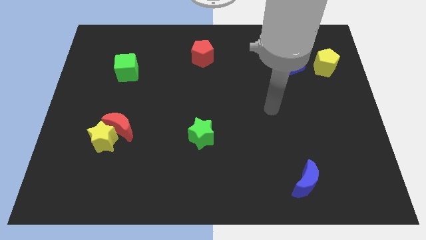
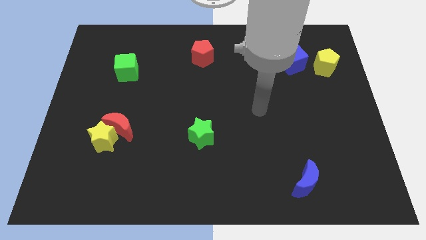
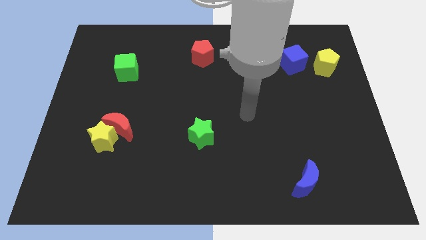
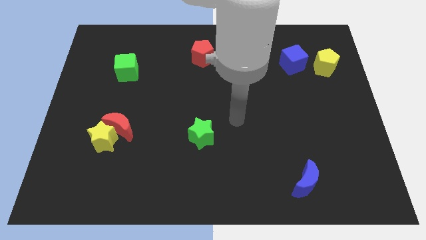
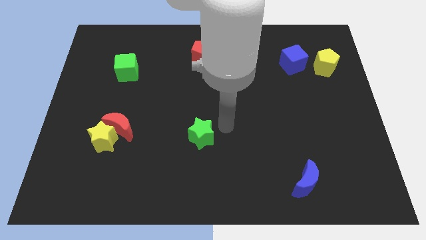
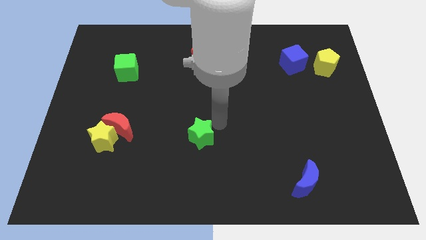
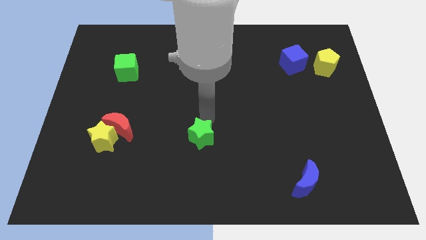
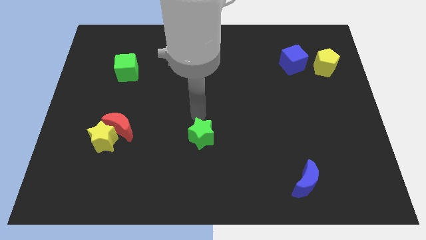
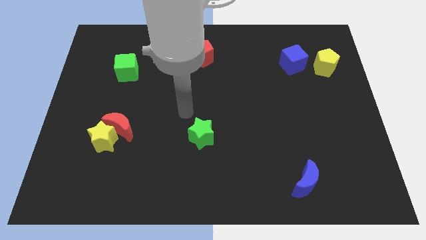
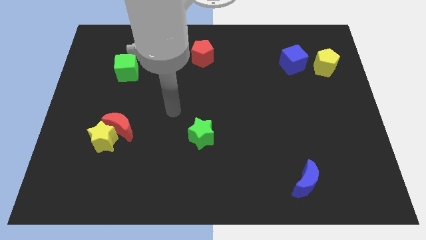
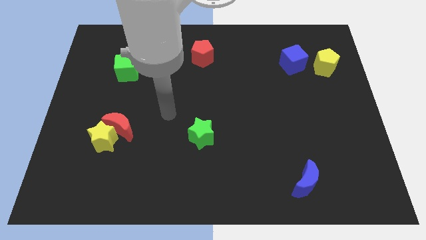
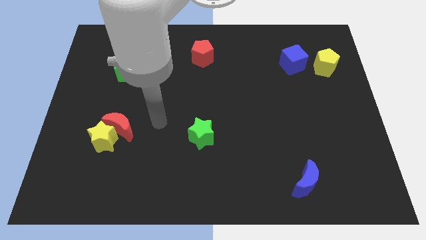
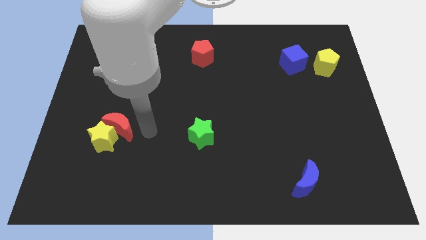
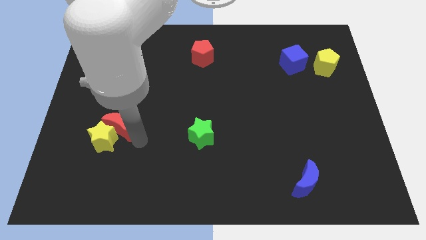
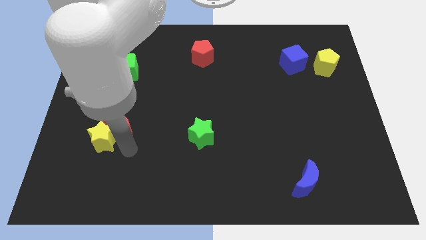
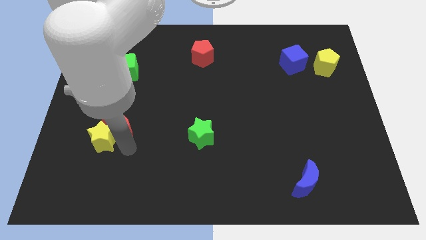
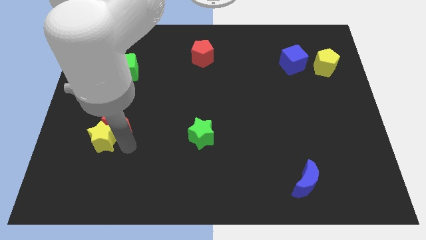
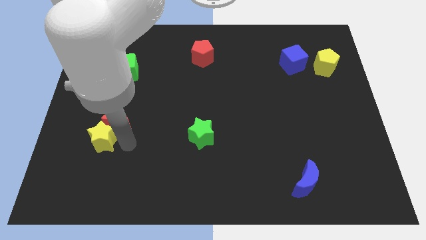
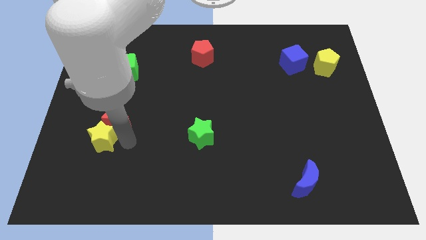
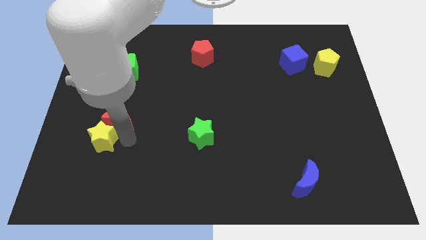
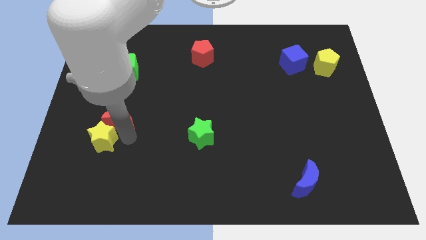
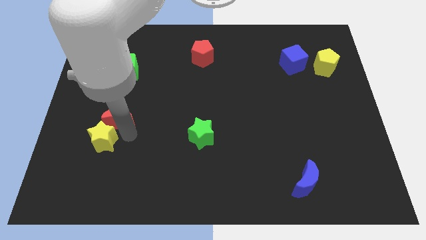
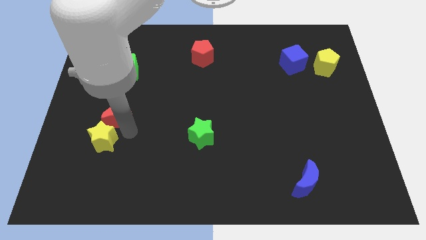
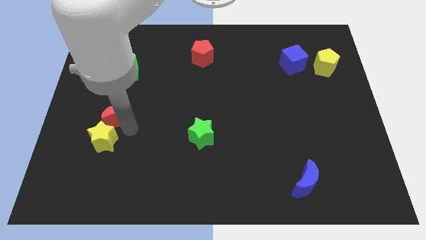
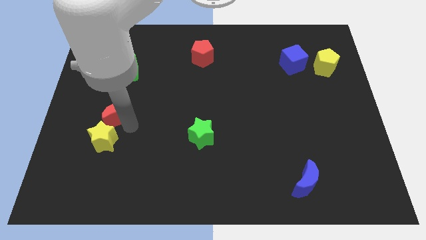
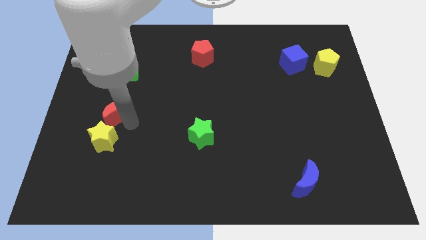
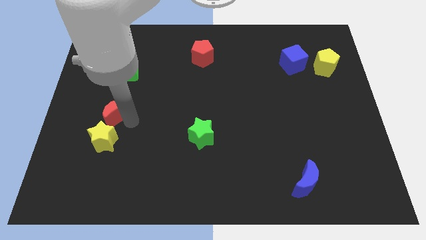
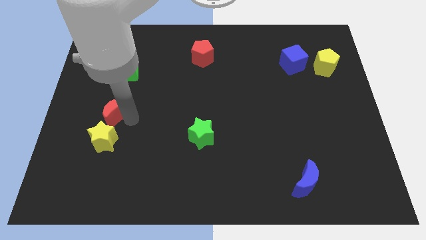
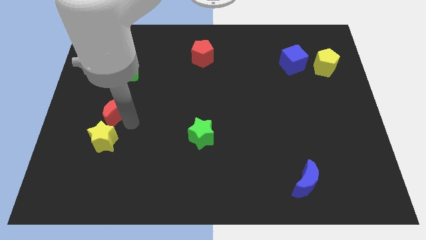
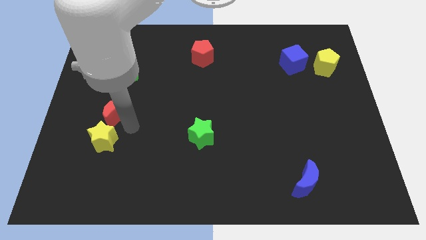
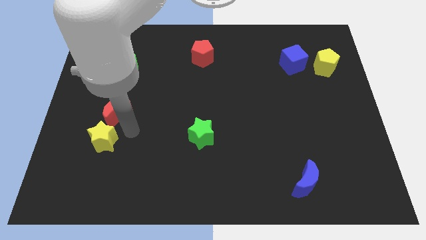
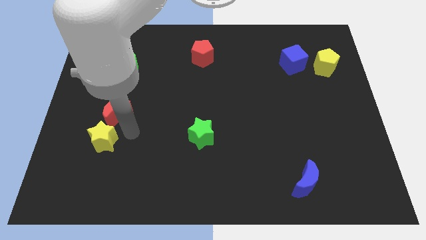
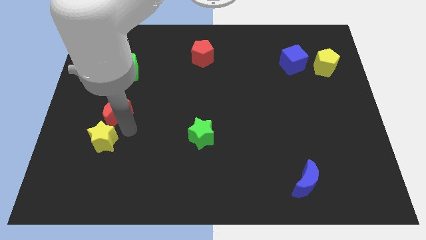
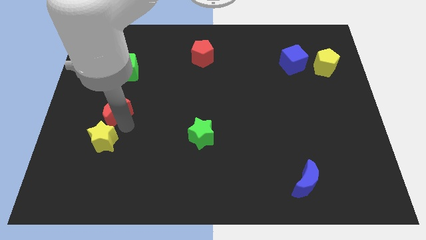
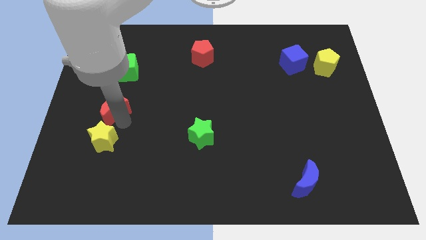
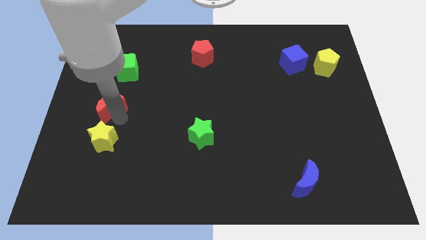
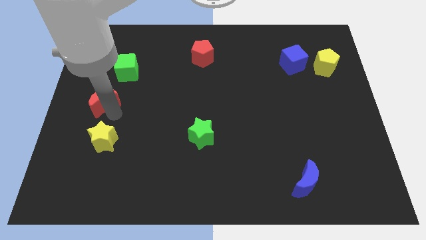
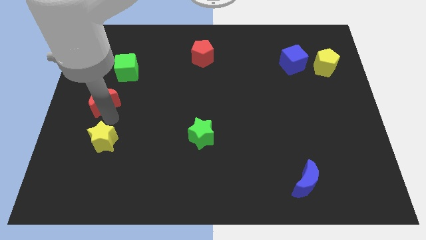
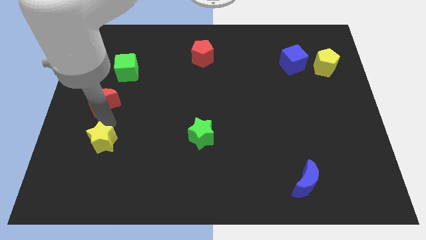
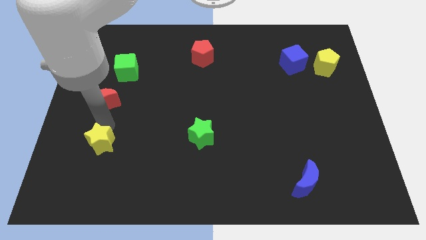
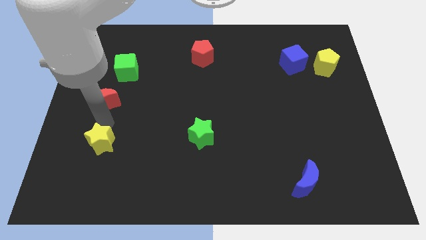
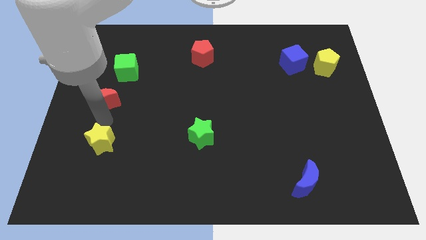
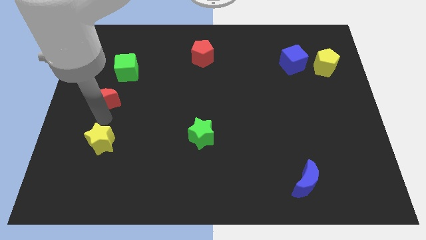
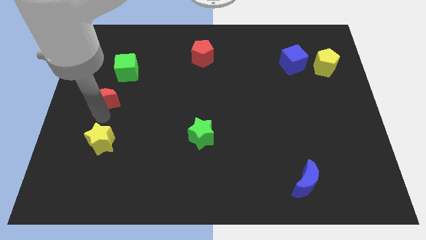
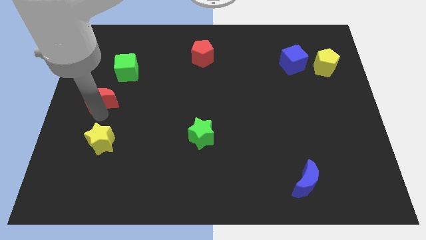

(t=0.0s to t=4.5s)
move the red moon to the bottom left of the green cube

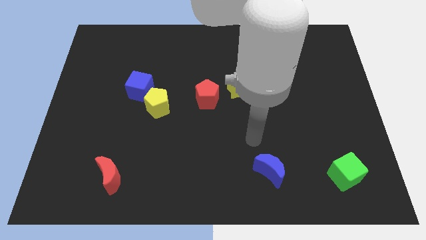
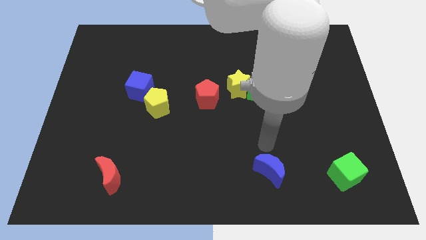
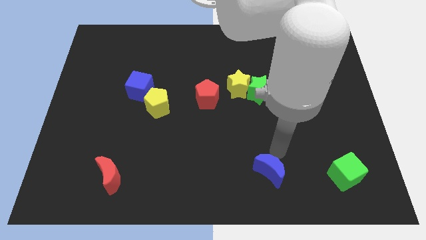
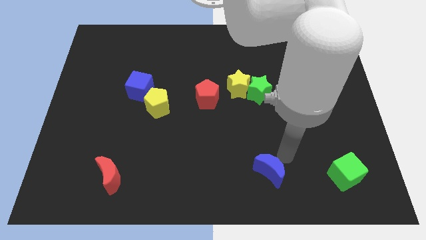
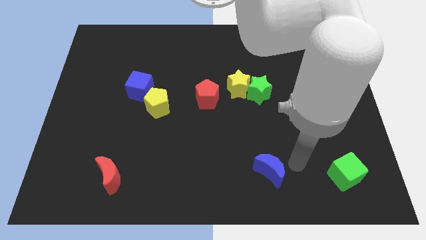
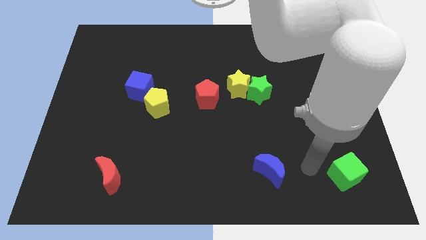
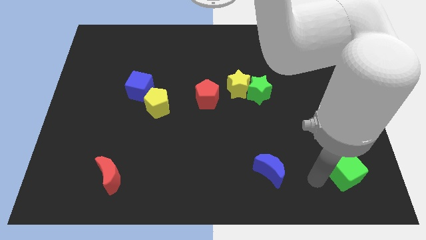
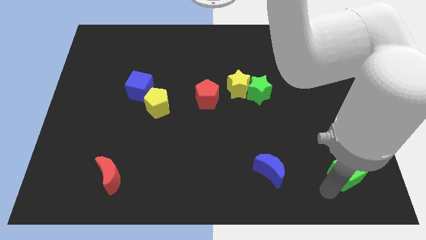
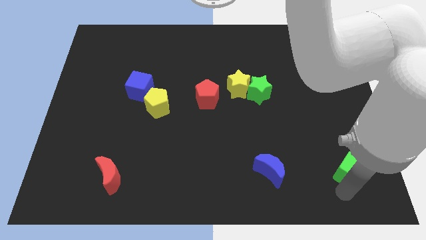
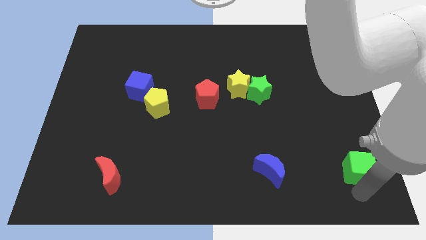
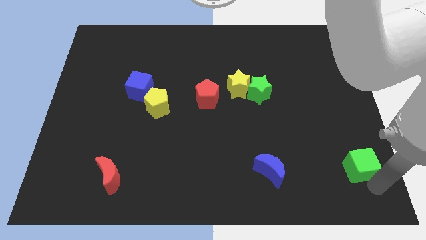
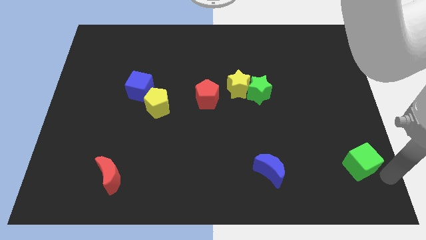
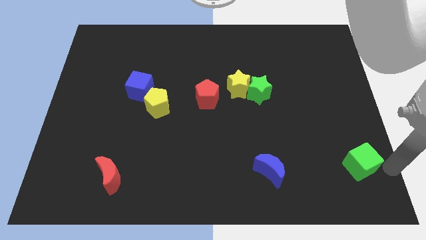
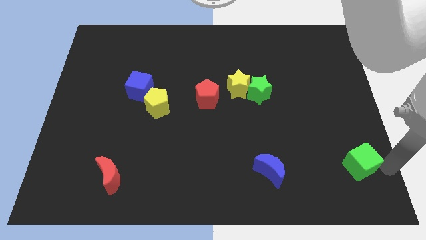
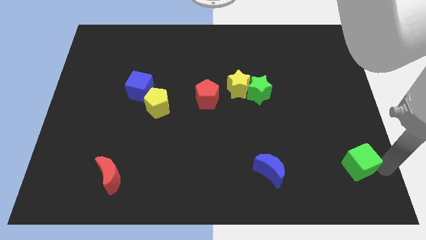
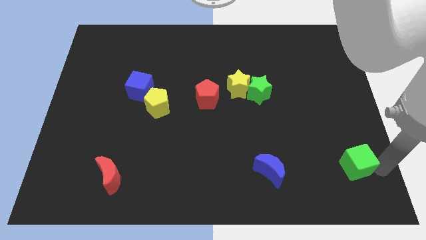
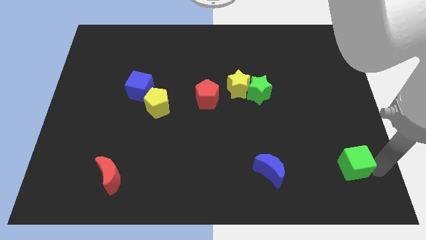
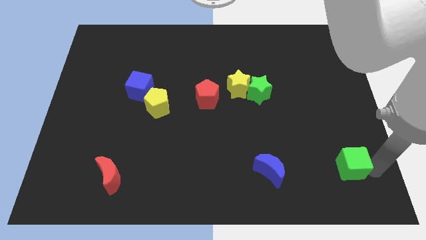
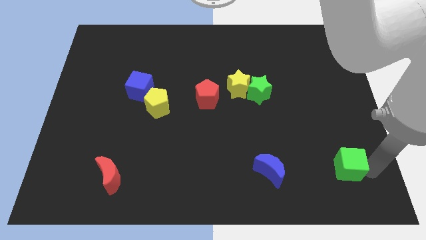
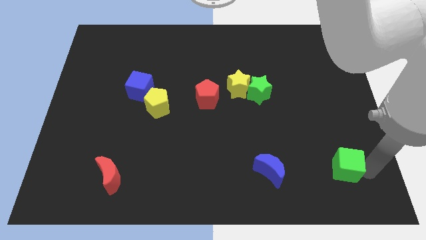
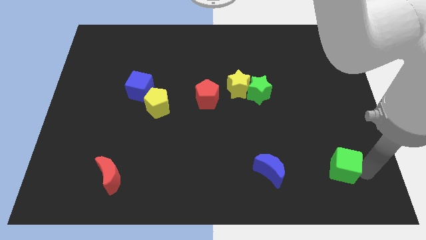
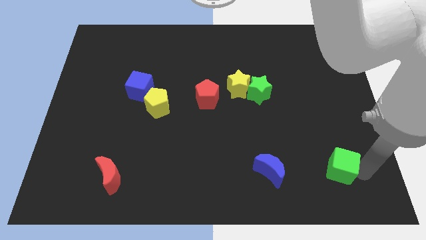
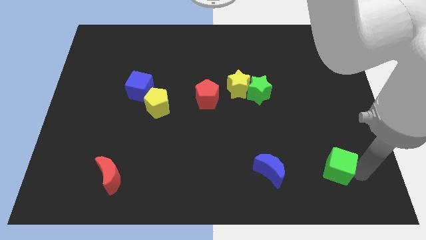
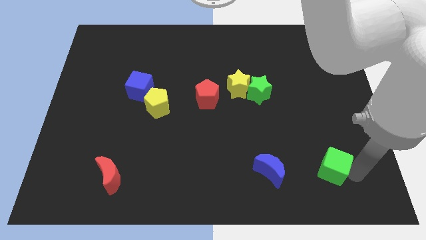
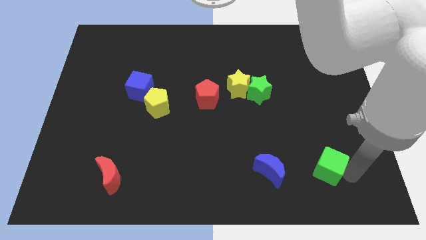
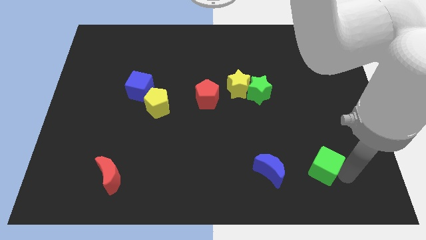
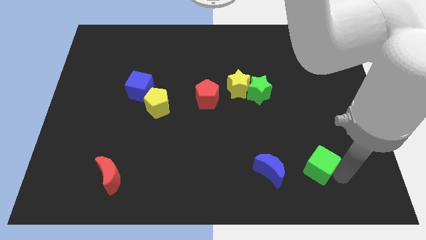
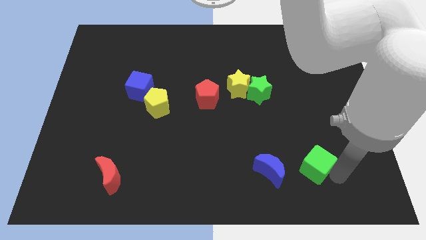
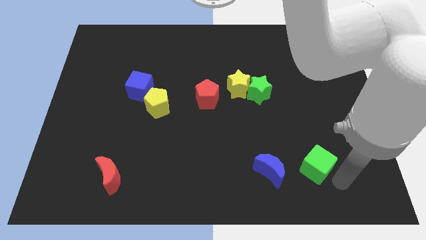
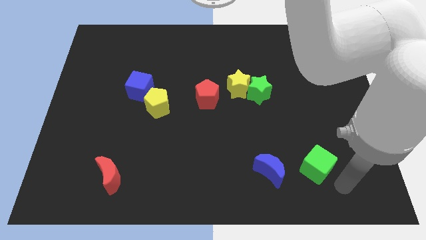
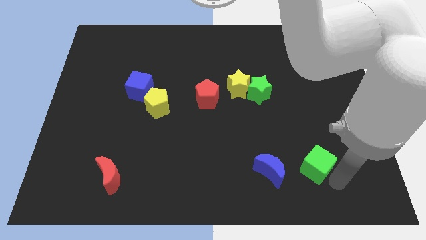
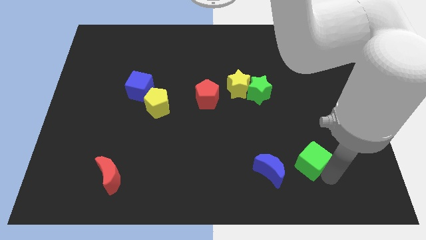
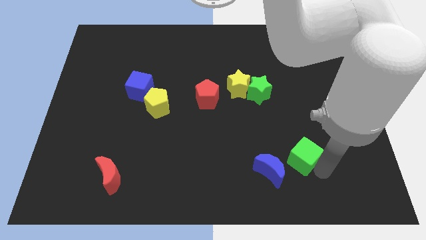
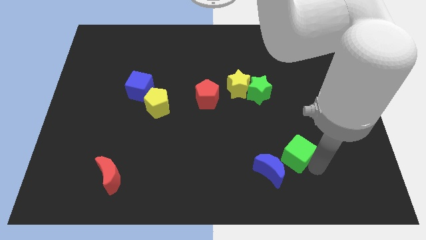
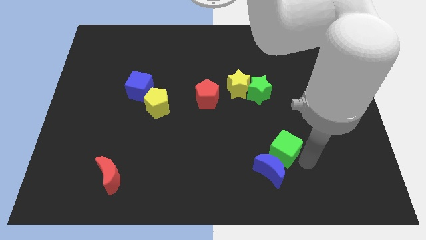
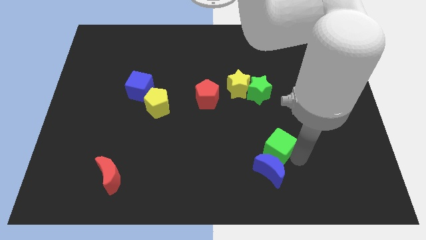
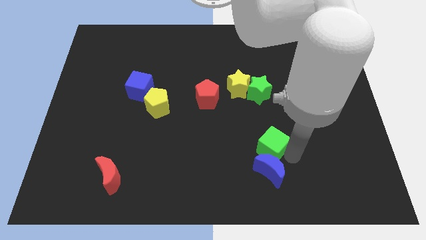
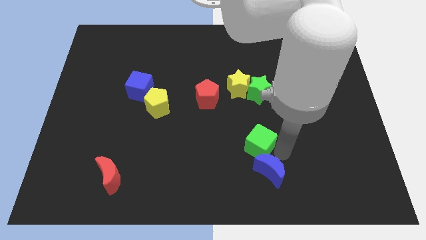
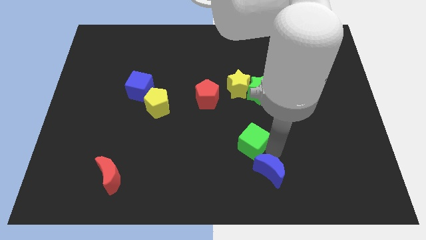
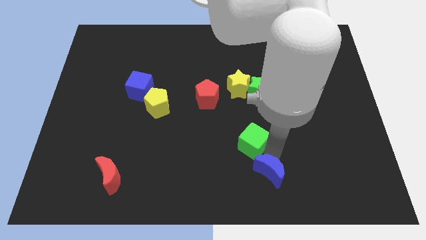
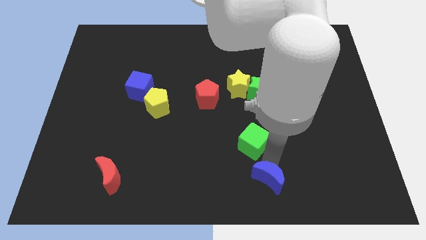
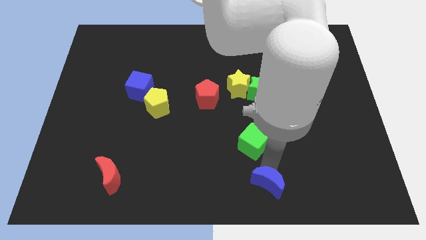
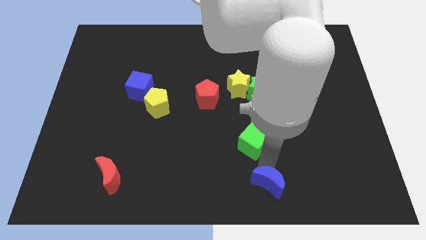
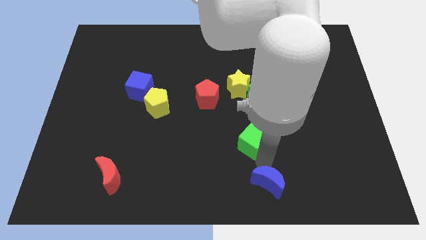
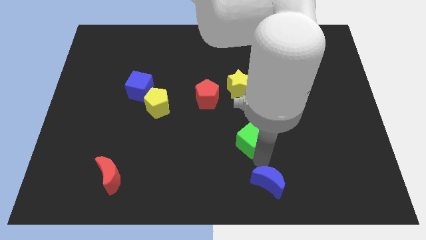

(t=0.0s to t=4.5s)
move the green cube below the yellow star
